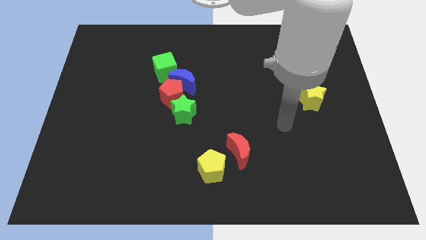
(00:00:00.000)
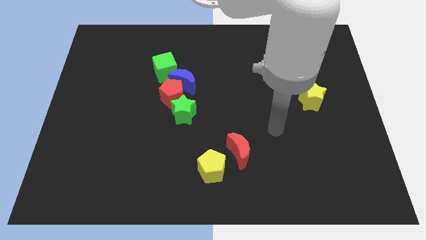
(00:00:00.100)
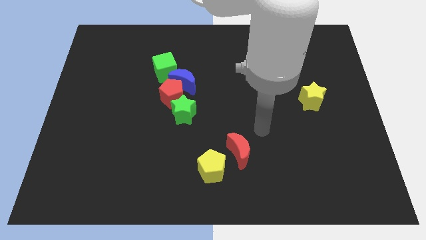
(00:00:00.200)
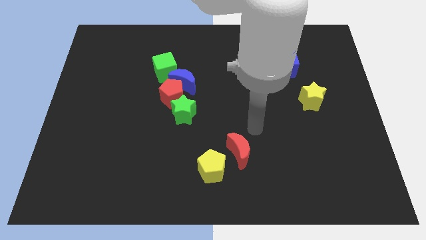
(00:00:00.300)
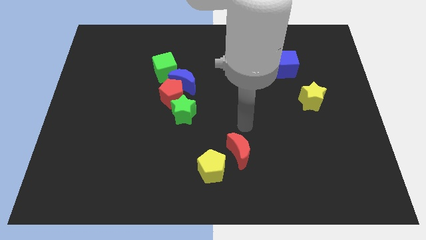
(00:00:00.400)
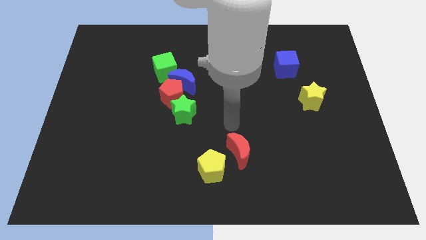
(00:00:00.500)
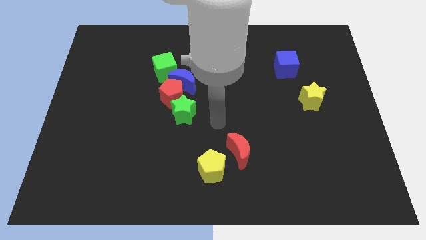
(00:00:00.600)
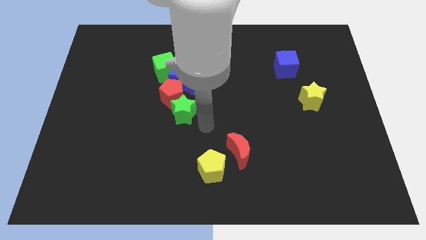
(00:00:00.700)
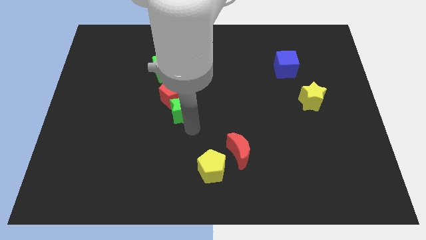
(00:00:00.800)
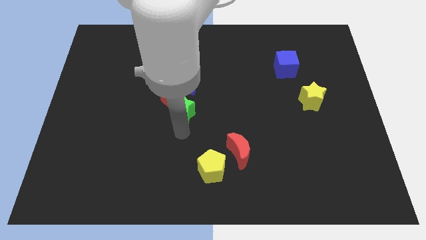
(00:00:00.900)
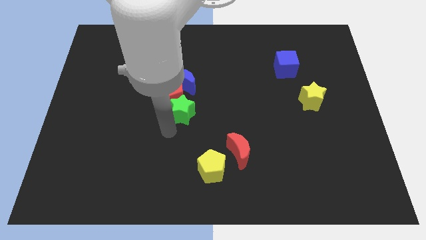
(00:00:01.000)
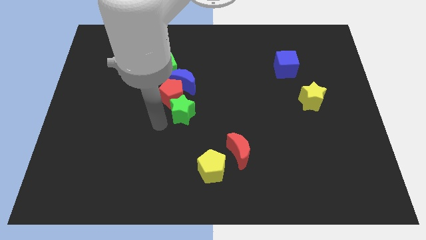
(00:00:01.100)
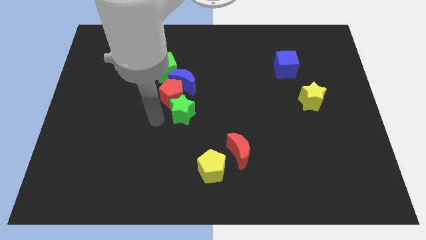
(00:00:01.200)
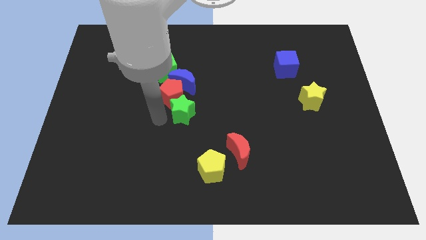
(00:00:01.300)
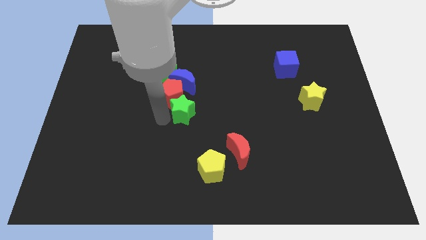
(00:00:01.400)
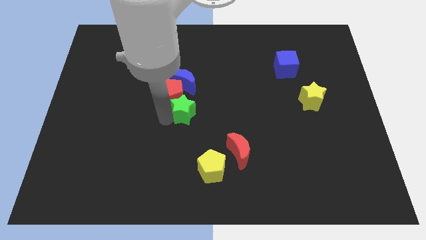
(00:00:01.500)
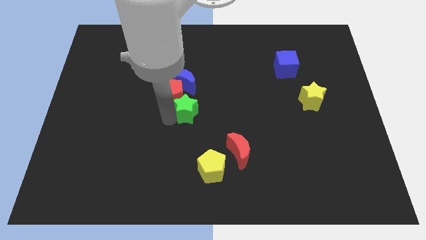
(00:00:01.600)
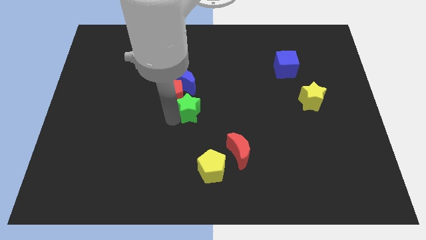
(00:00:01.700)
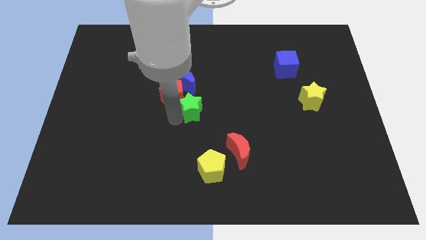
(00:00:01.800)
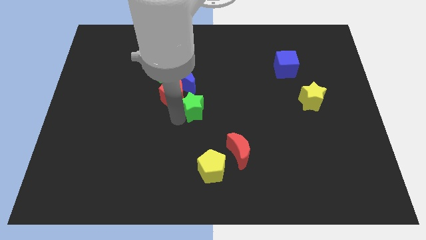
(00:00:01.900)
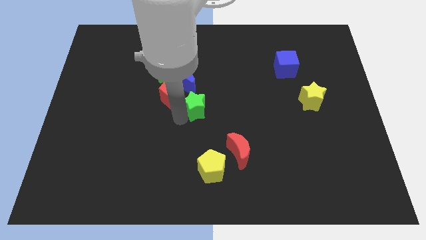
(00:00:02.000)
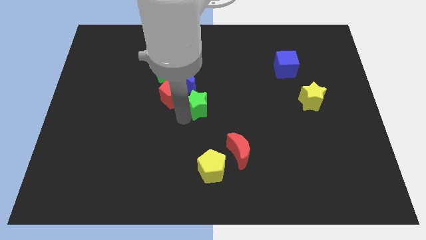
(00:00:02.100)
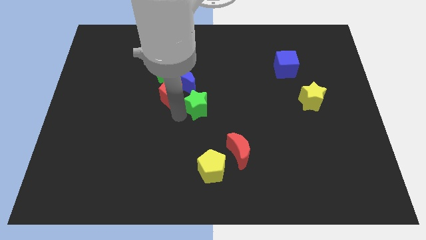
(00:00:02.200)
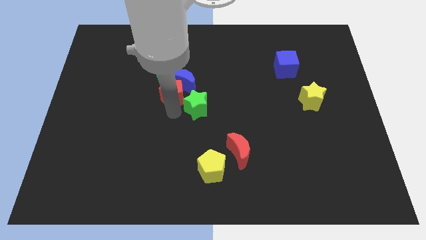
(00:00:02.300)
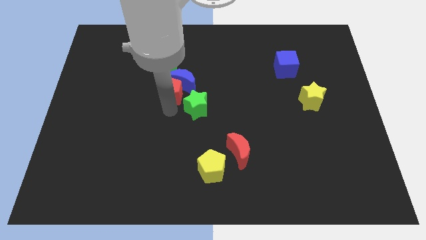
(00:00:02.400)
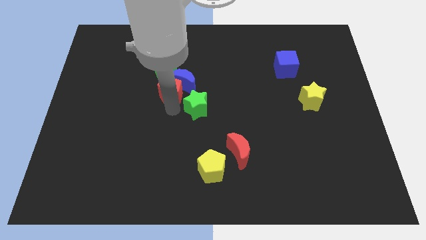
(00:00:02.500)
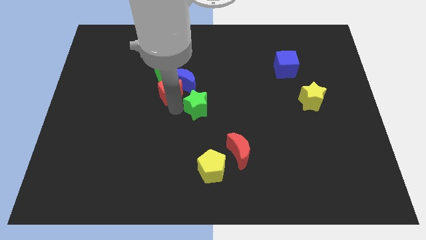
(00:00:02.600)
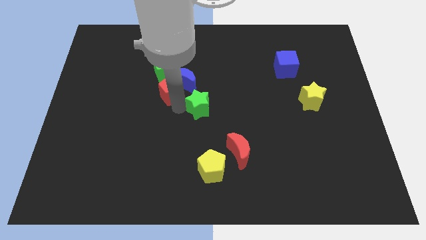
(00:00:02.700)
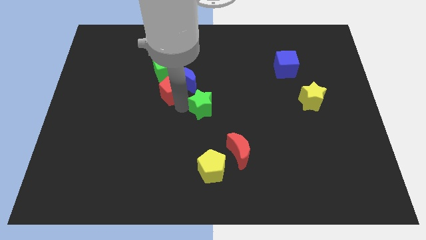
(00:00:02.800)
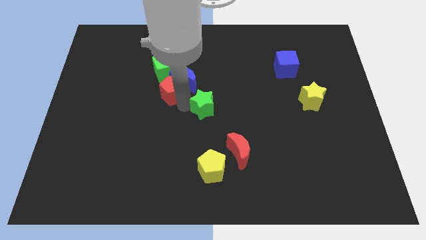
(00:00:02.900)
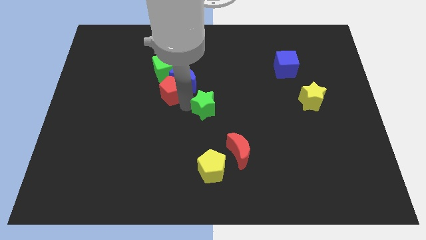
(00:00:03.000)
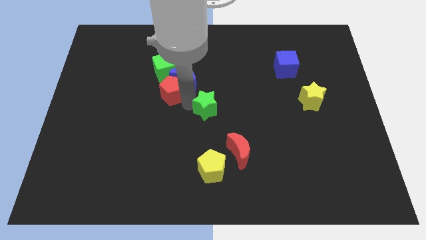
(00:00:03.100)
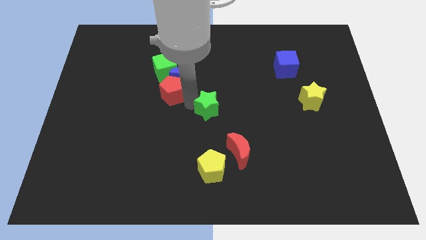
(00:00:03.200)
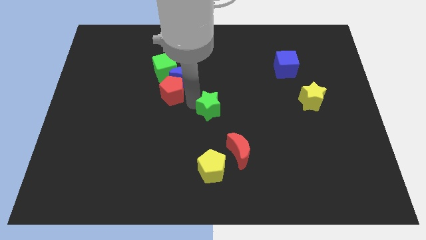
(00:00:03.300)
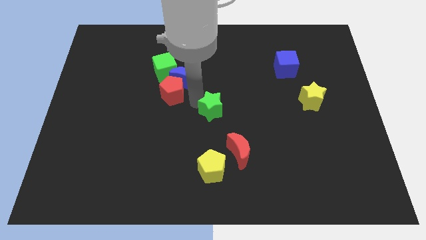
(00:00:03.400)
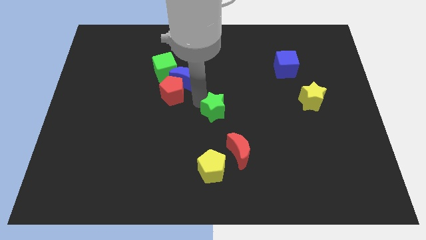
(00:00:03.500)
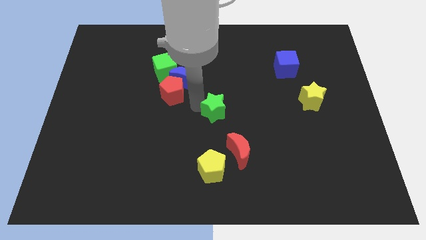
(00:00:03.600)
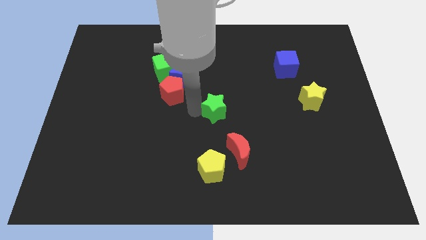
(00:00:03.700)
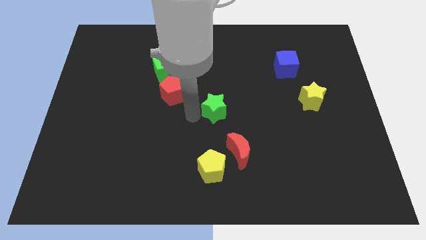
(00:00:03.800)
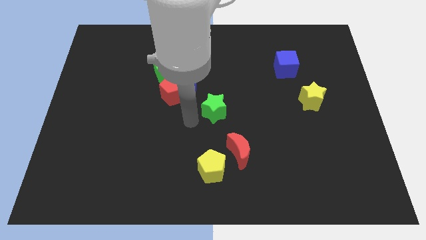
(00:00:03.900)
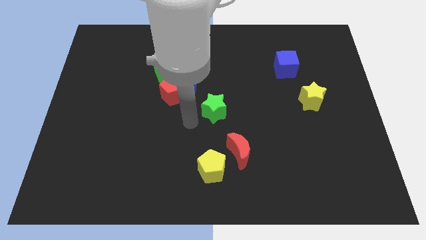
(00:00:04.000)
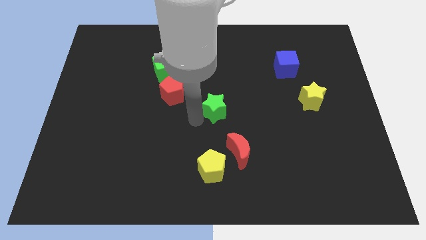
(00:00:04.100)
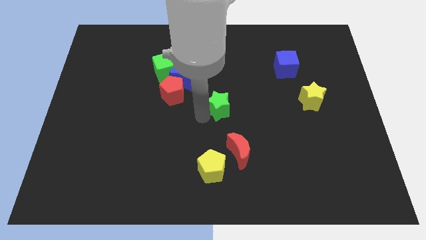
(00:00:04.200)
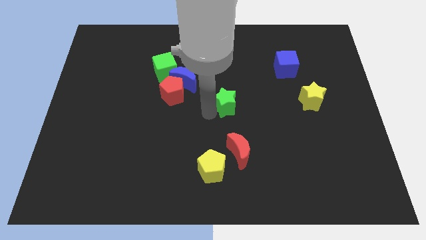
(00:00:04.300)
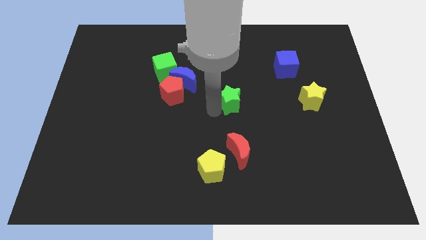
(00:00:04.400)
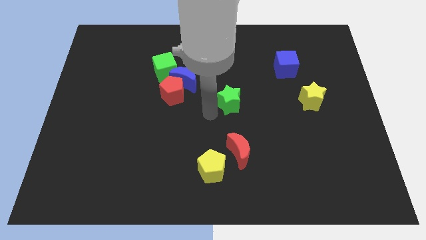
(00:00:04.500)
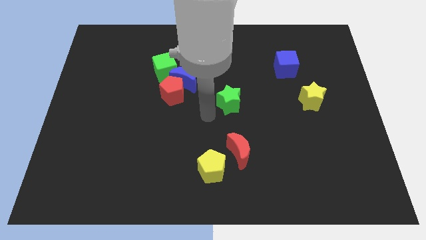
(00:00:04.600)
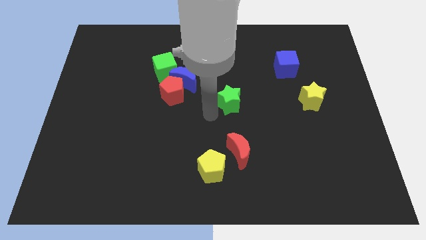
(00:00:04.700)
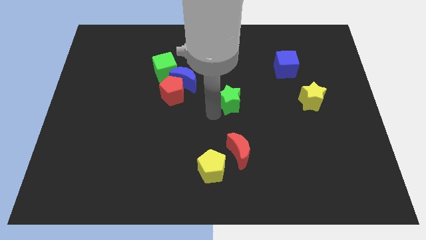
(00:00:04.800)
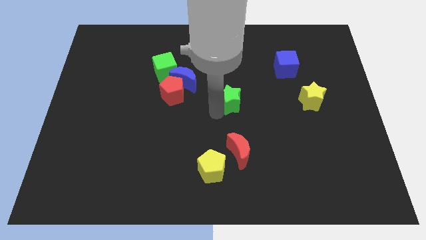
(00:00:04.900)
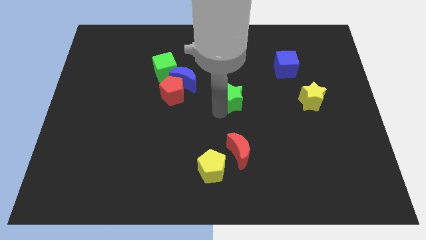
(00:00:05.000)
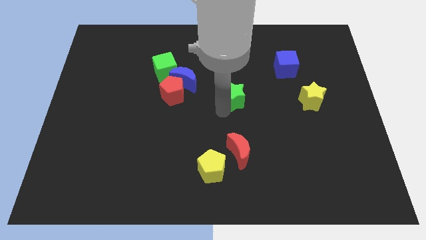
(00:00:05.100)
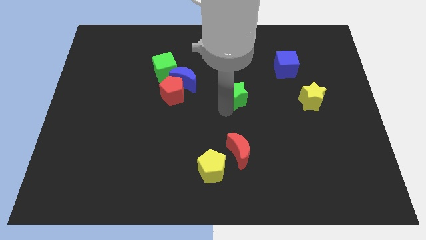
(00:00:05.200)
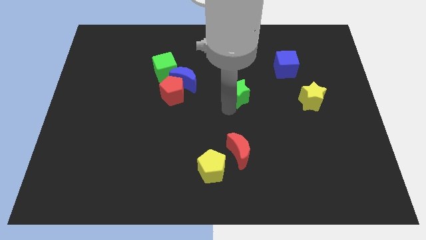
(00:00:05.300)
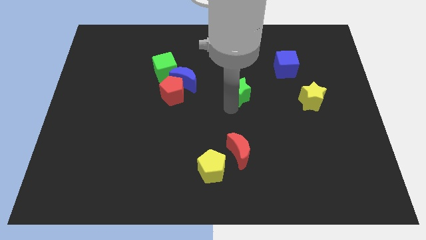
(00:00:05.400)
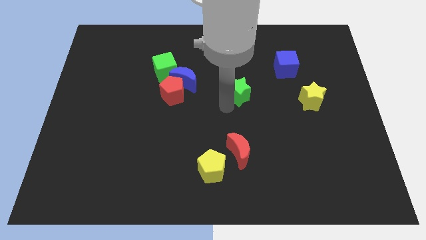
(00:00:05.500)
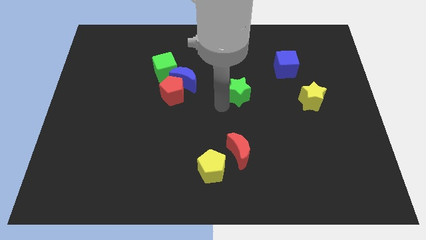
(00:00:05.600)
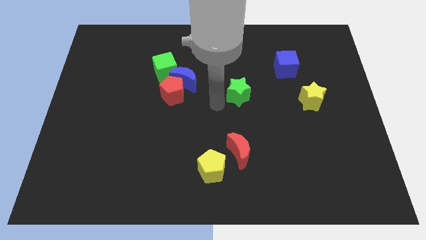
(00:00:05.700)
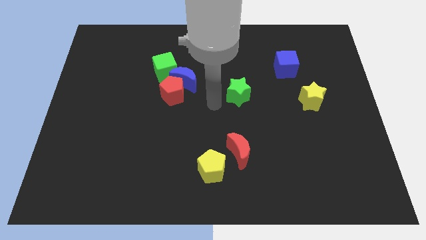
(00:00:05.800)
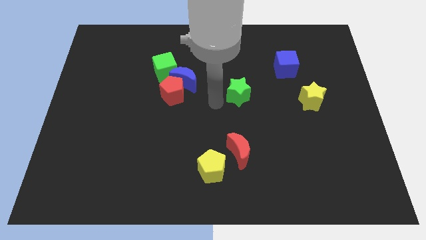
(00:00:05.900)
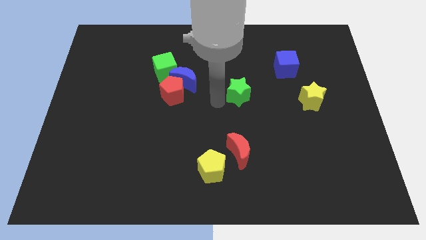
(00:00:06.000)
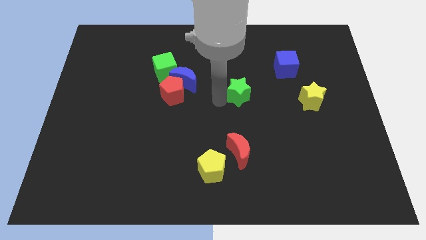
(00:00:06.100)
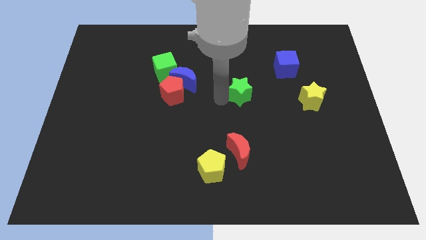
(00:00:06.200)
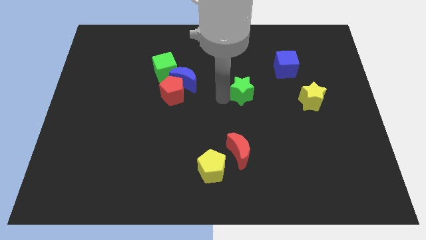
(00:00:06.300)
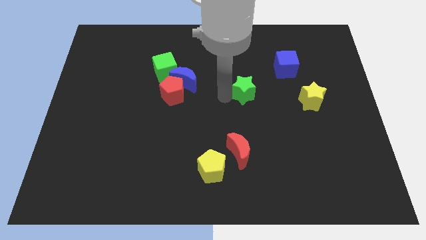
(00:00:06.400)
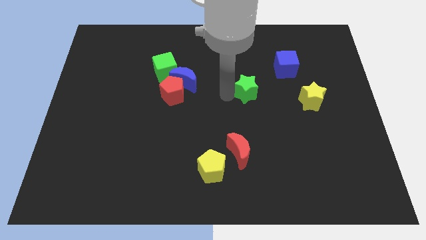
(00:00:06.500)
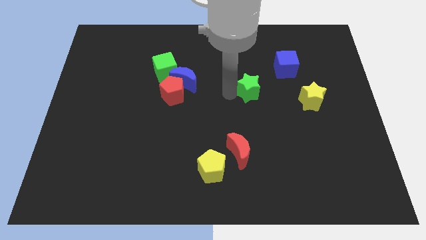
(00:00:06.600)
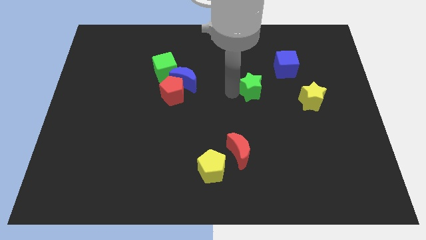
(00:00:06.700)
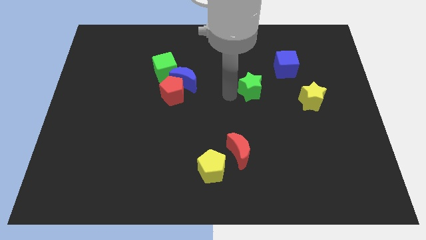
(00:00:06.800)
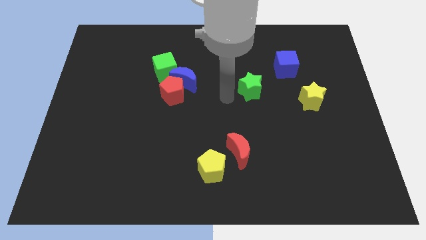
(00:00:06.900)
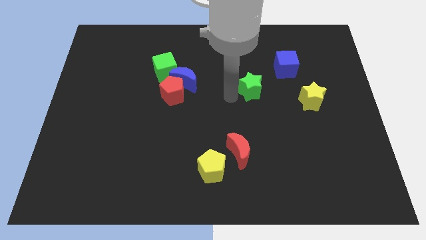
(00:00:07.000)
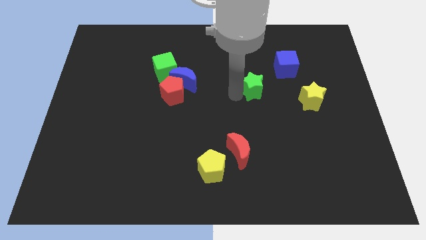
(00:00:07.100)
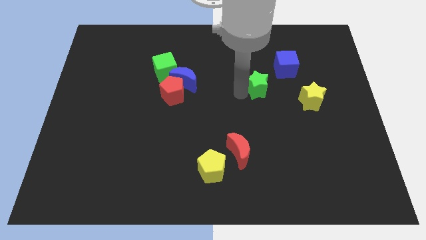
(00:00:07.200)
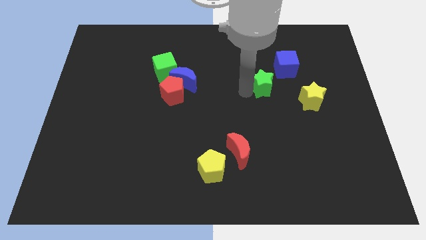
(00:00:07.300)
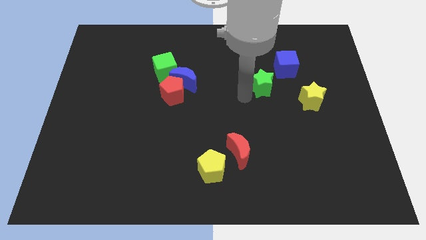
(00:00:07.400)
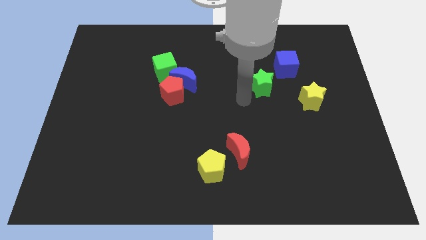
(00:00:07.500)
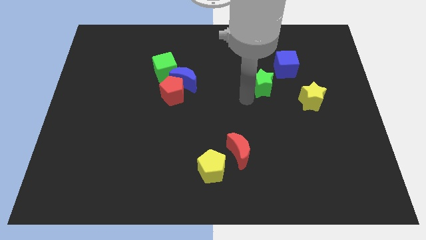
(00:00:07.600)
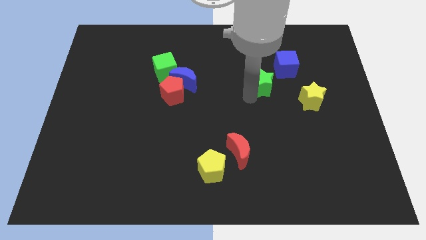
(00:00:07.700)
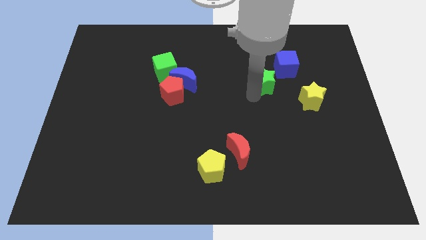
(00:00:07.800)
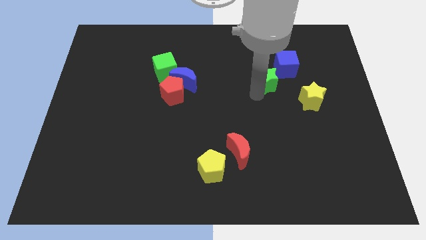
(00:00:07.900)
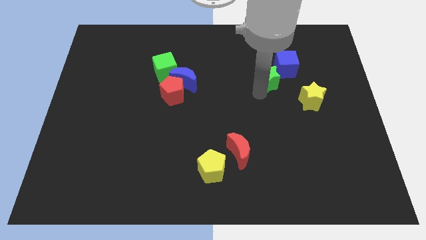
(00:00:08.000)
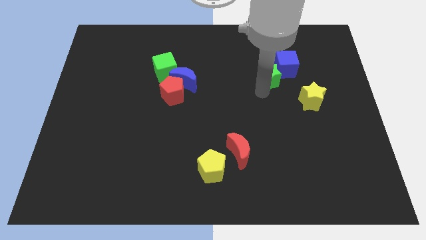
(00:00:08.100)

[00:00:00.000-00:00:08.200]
move the green star next to the blue cube
